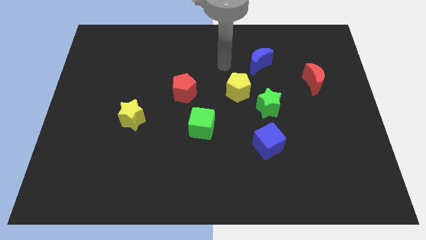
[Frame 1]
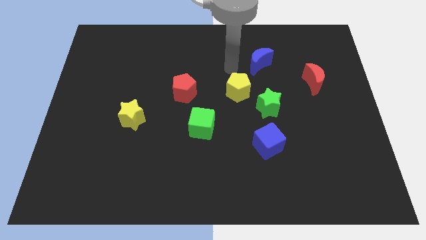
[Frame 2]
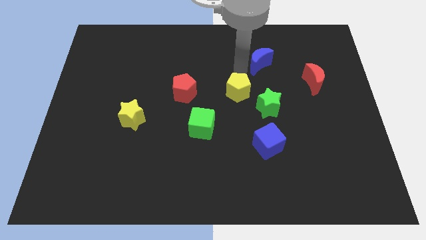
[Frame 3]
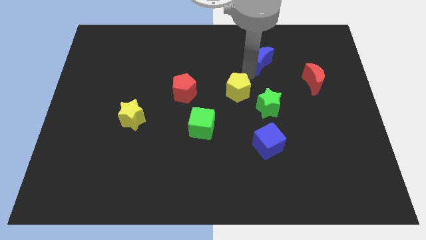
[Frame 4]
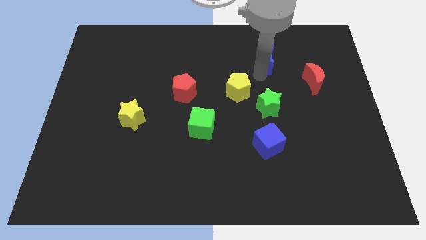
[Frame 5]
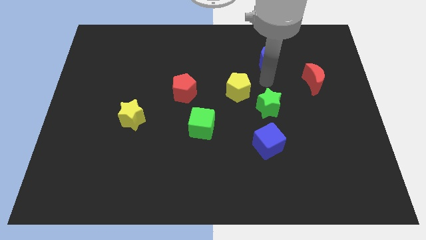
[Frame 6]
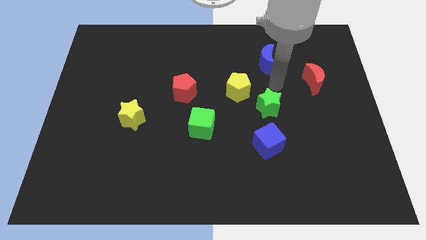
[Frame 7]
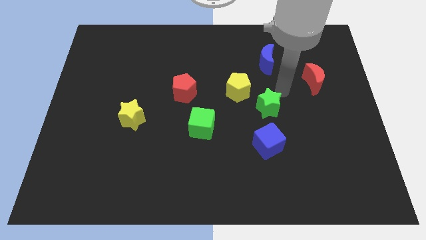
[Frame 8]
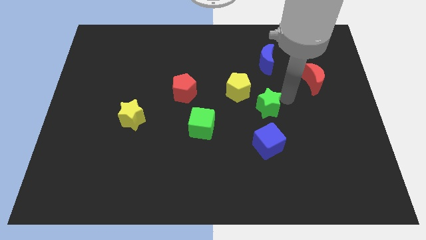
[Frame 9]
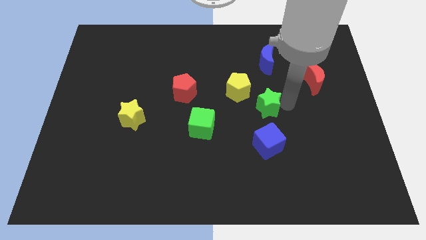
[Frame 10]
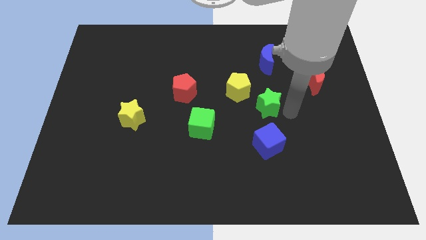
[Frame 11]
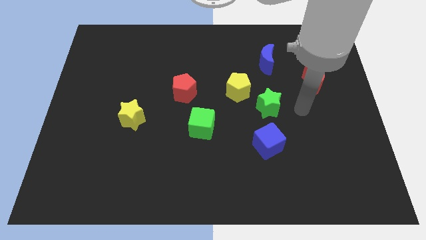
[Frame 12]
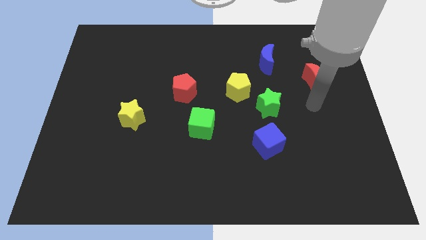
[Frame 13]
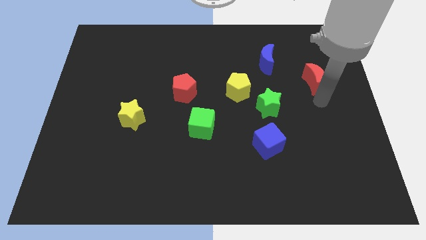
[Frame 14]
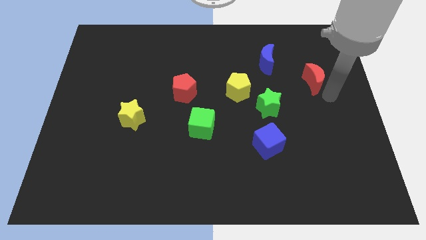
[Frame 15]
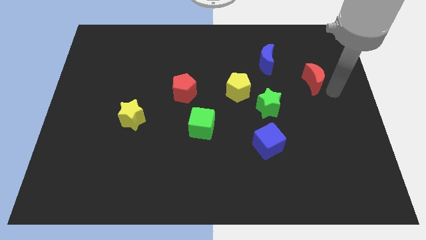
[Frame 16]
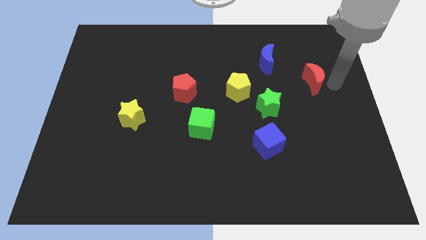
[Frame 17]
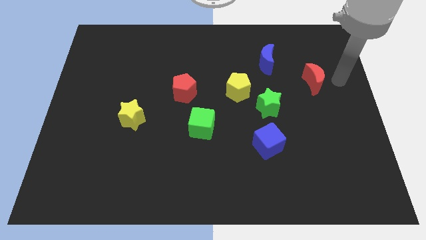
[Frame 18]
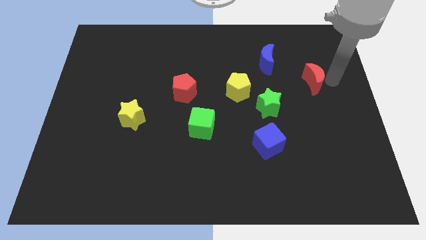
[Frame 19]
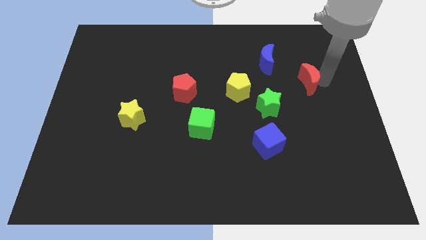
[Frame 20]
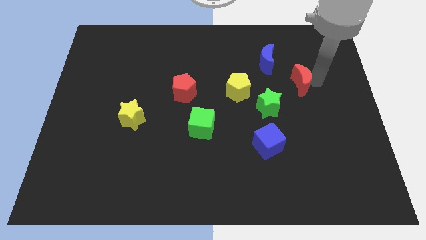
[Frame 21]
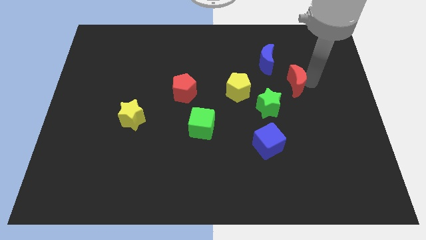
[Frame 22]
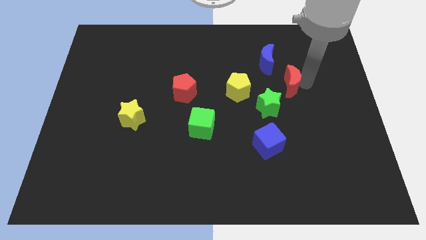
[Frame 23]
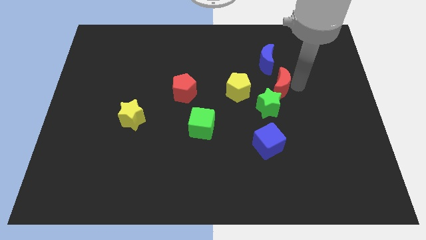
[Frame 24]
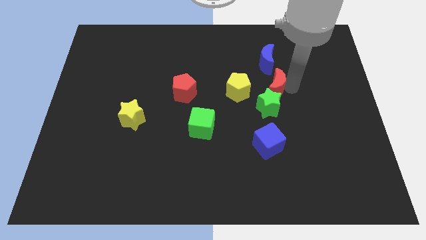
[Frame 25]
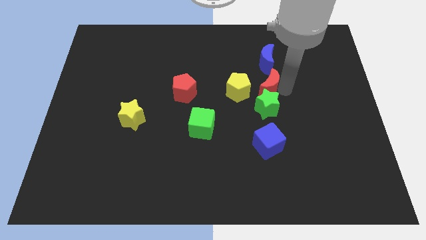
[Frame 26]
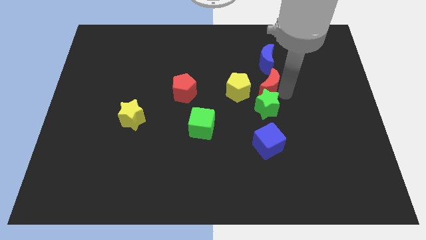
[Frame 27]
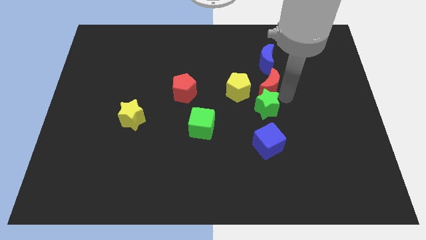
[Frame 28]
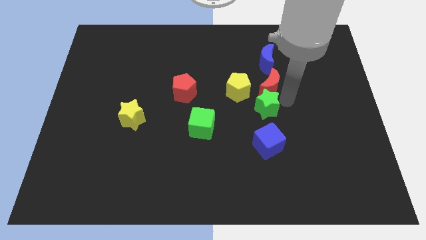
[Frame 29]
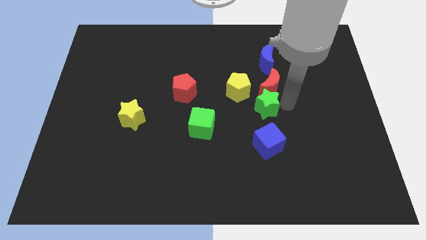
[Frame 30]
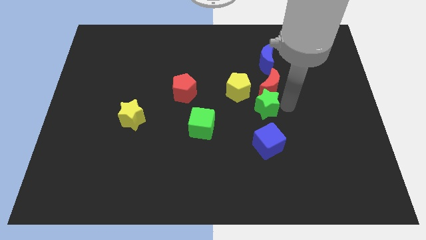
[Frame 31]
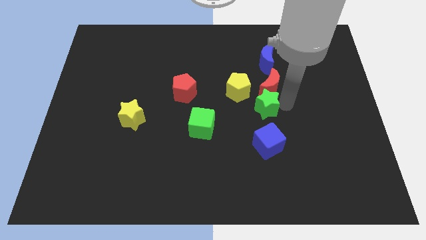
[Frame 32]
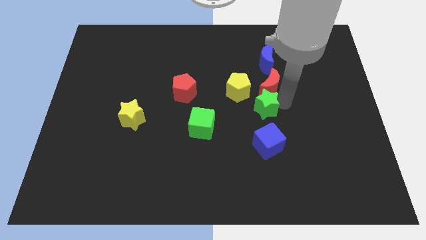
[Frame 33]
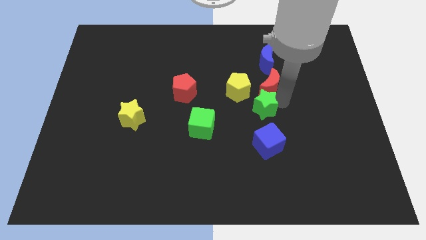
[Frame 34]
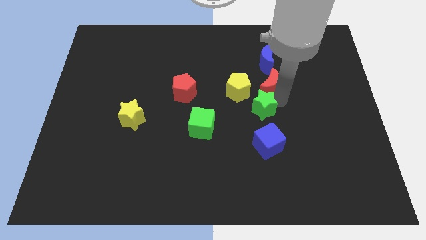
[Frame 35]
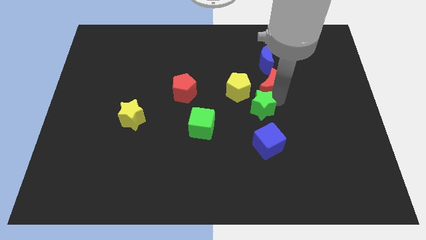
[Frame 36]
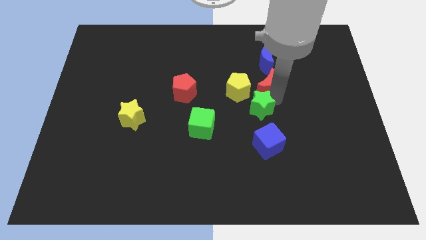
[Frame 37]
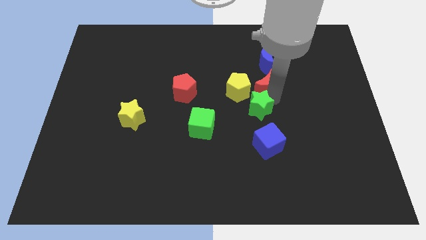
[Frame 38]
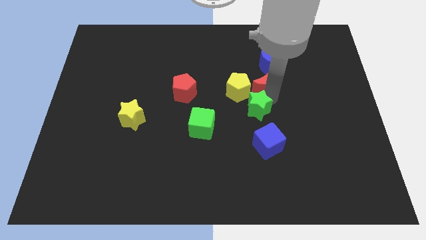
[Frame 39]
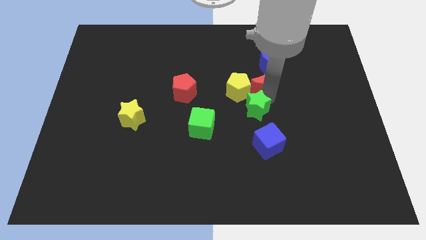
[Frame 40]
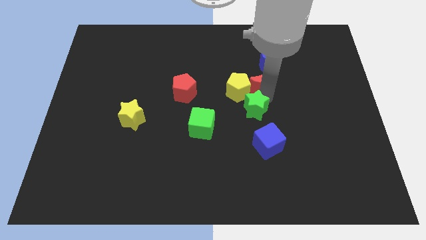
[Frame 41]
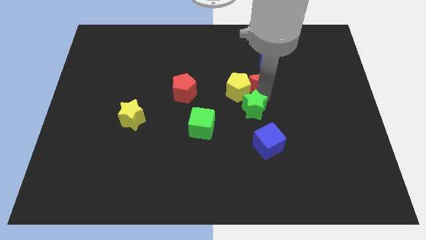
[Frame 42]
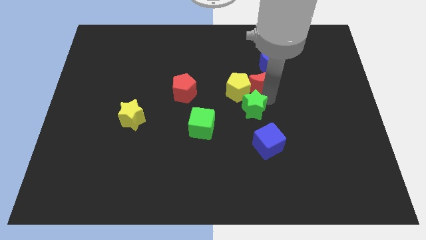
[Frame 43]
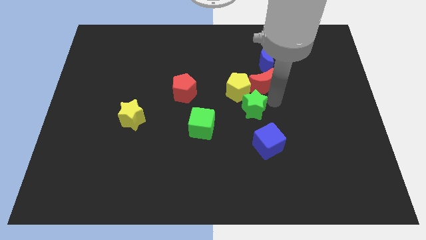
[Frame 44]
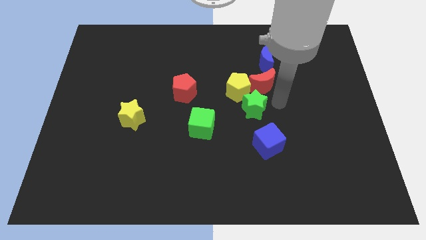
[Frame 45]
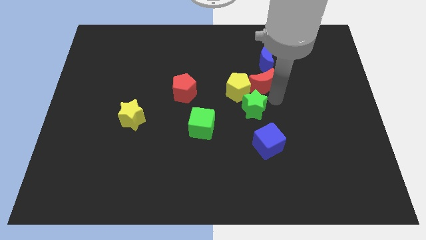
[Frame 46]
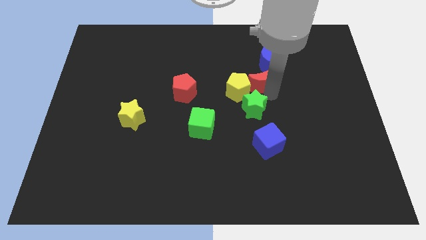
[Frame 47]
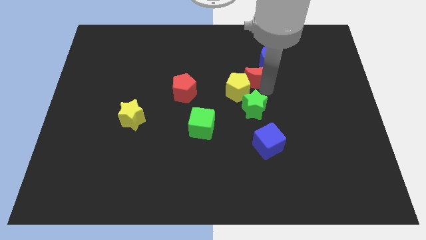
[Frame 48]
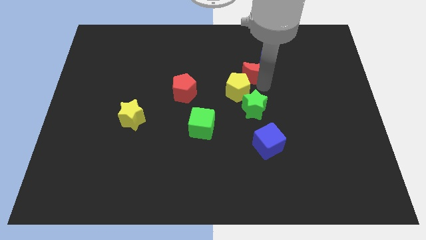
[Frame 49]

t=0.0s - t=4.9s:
put the red moon above the yellow pentagon

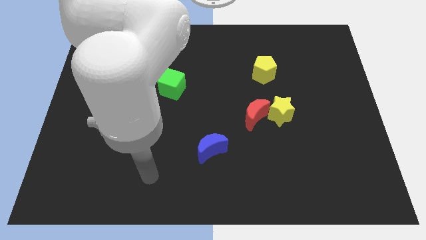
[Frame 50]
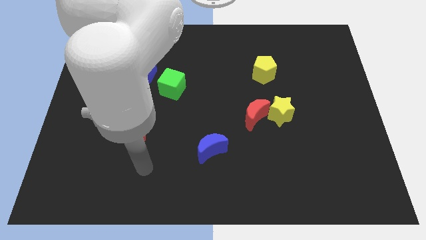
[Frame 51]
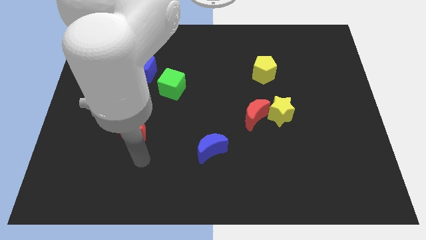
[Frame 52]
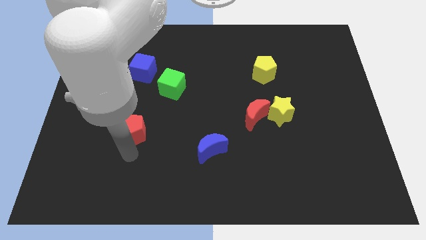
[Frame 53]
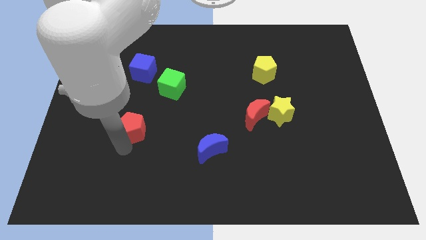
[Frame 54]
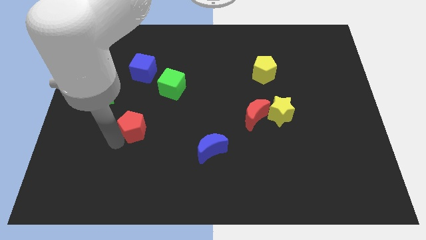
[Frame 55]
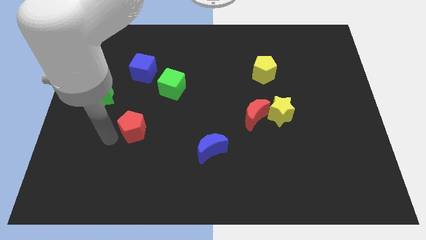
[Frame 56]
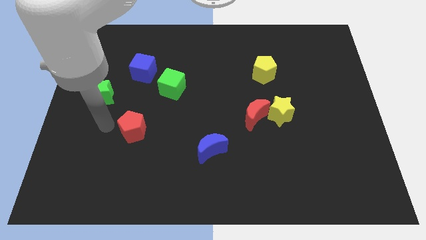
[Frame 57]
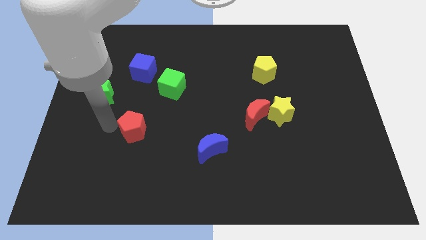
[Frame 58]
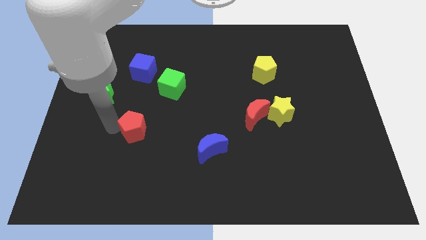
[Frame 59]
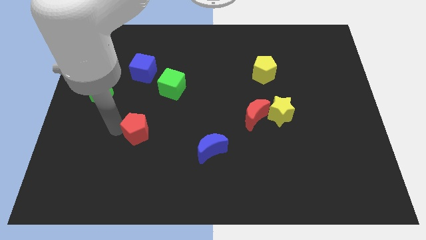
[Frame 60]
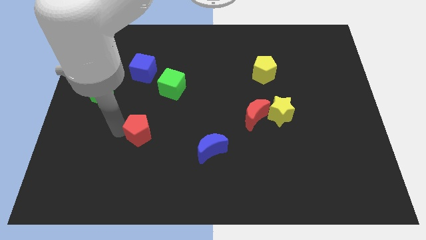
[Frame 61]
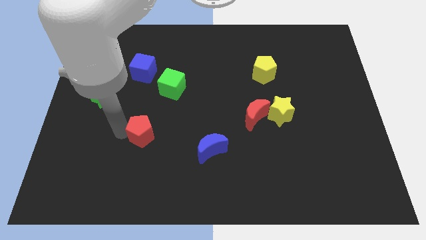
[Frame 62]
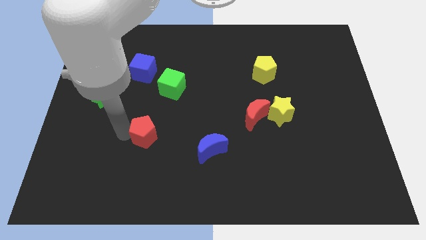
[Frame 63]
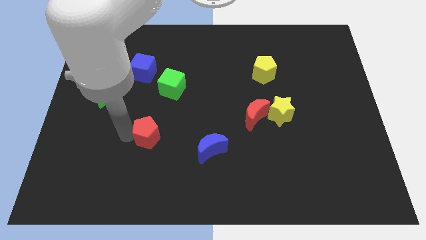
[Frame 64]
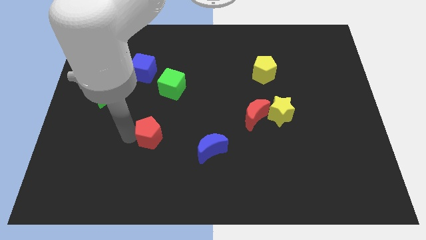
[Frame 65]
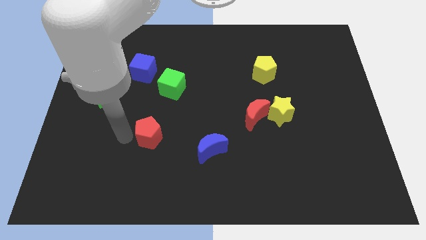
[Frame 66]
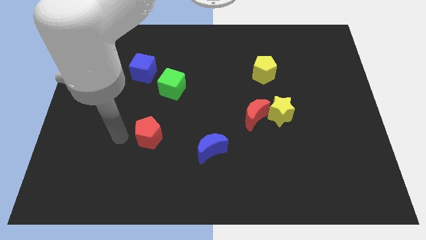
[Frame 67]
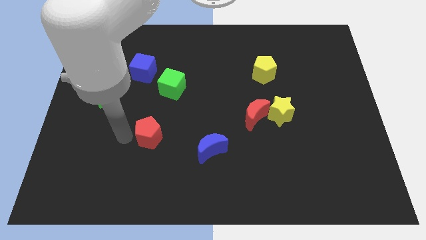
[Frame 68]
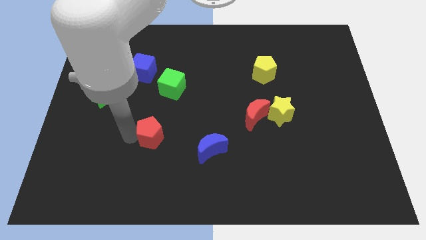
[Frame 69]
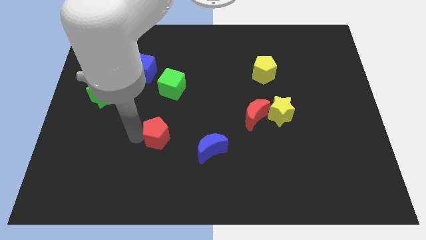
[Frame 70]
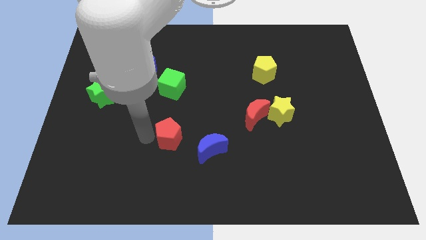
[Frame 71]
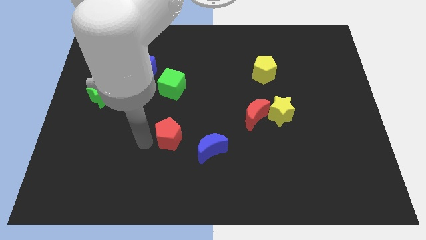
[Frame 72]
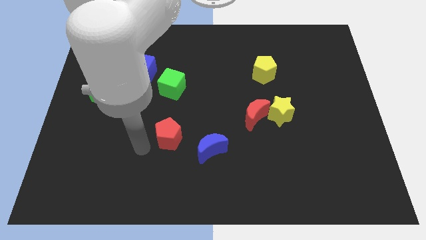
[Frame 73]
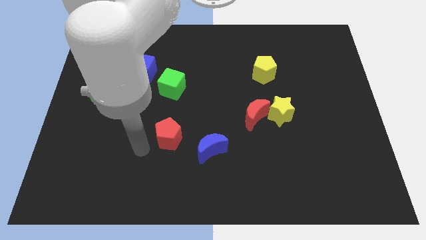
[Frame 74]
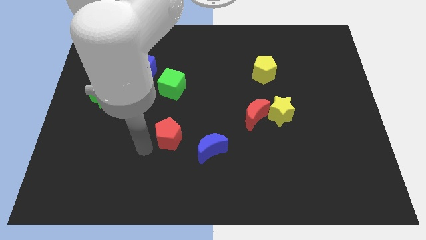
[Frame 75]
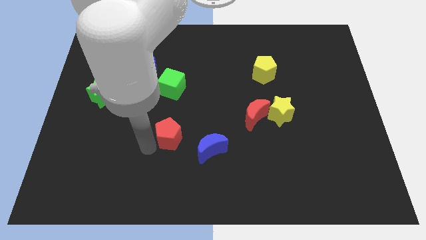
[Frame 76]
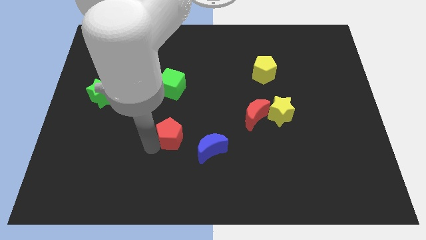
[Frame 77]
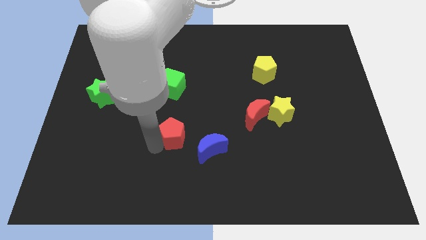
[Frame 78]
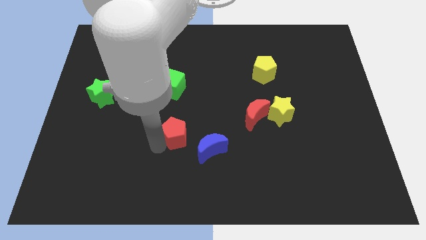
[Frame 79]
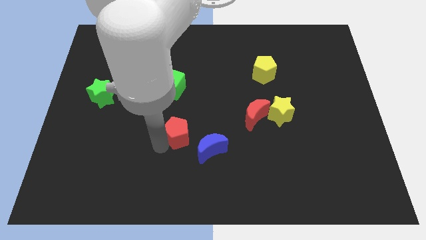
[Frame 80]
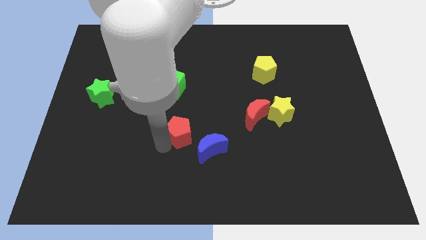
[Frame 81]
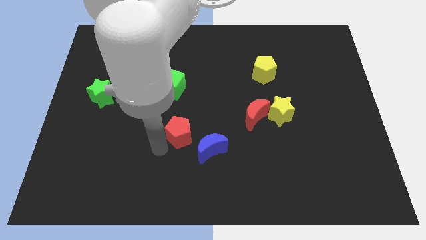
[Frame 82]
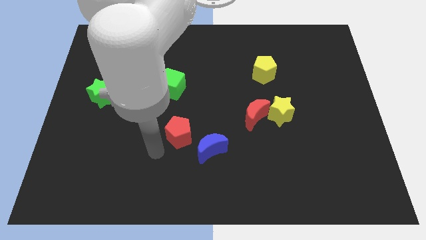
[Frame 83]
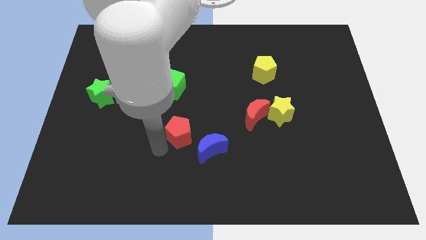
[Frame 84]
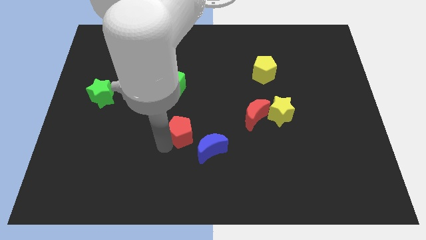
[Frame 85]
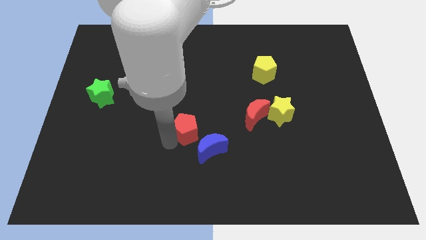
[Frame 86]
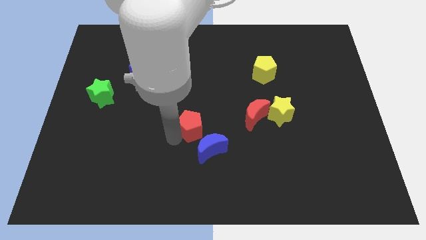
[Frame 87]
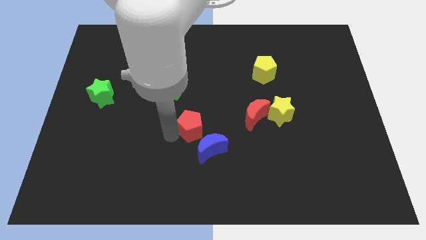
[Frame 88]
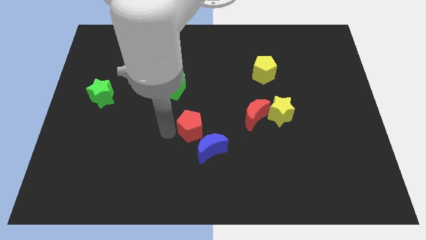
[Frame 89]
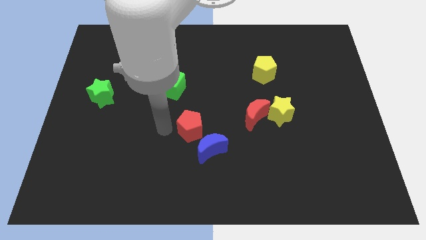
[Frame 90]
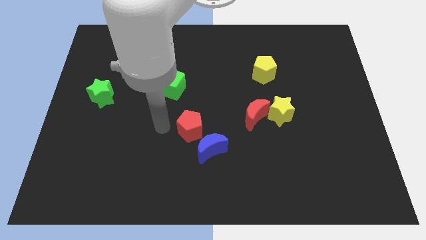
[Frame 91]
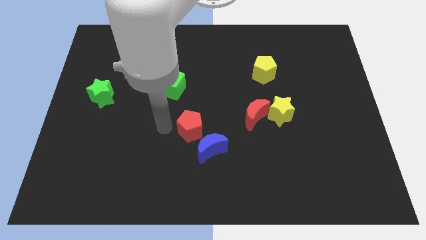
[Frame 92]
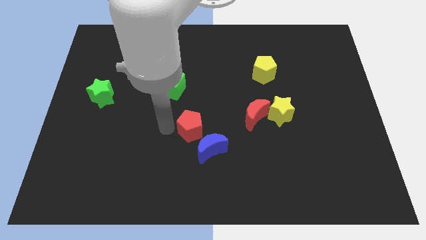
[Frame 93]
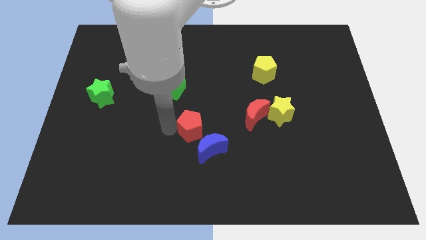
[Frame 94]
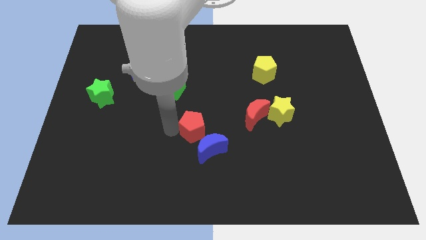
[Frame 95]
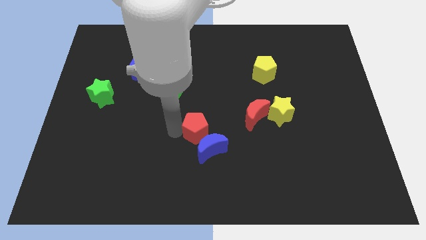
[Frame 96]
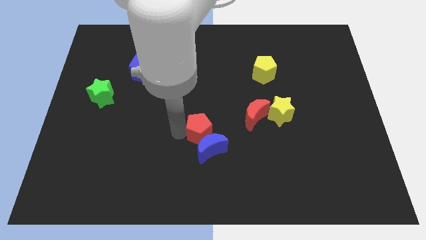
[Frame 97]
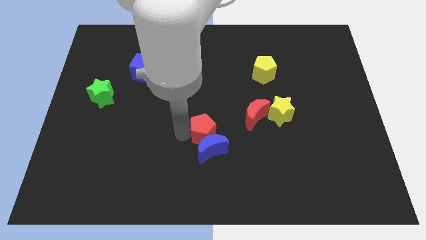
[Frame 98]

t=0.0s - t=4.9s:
put the red pentagon to the top right of the blue moon
